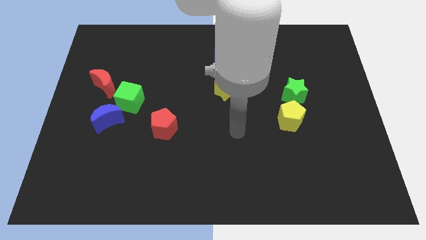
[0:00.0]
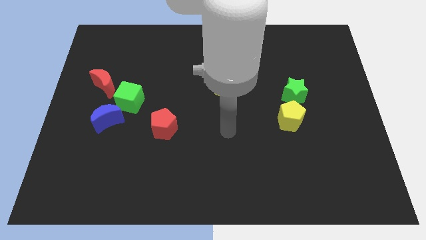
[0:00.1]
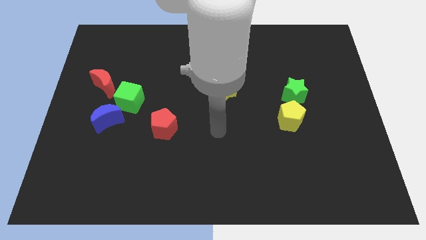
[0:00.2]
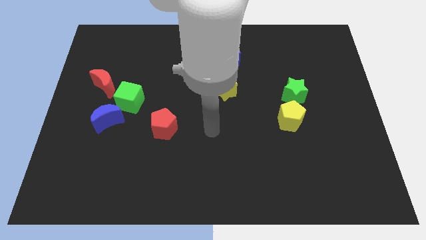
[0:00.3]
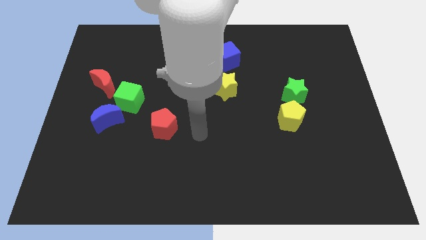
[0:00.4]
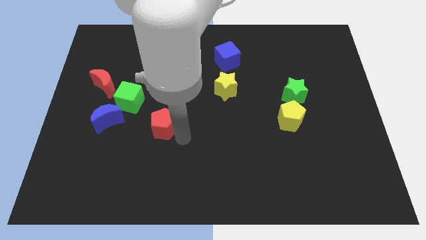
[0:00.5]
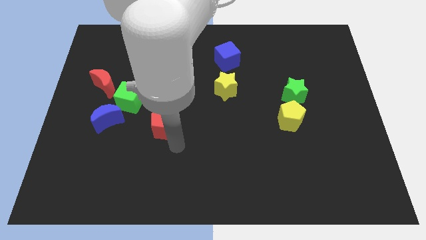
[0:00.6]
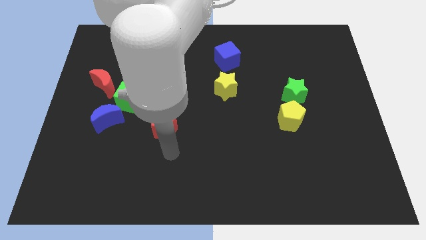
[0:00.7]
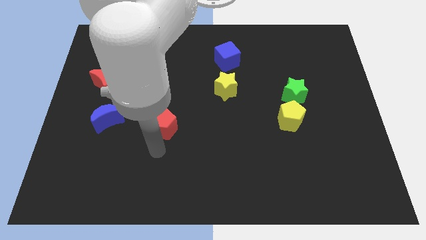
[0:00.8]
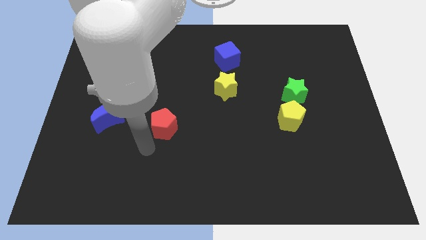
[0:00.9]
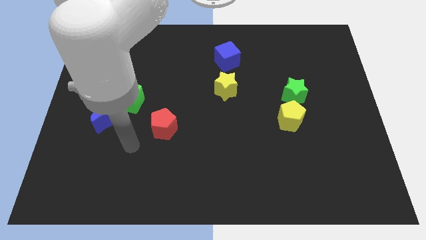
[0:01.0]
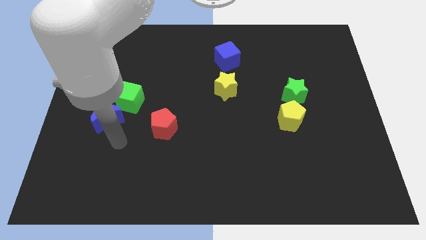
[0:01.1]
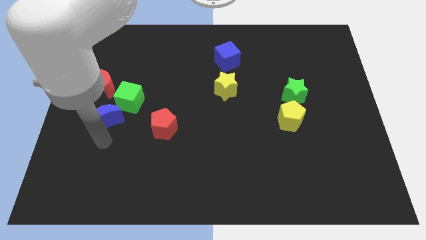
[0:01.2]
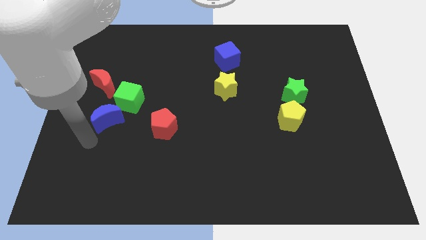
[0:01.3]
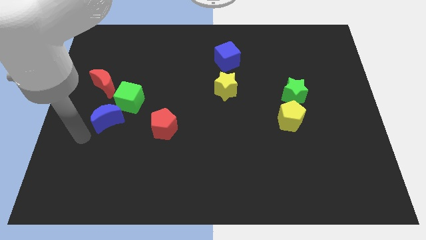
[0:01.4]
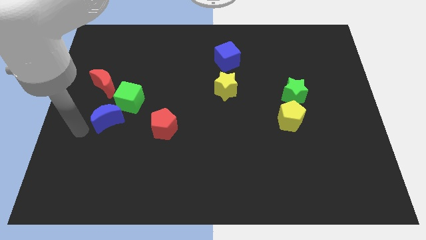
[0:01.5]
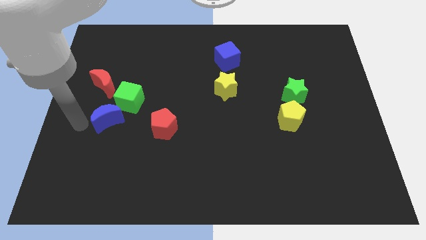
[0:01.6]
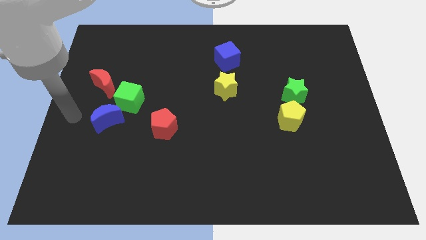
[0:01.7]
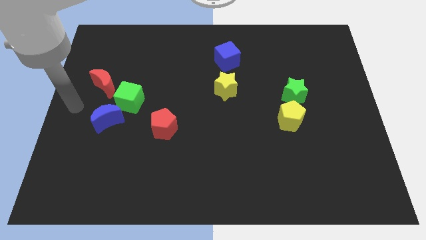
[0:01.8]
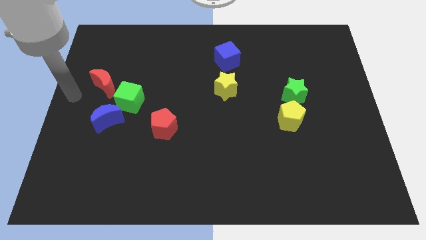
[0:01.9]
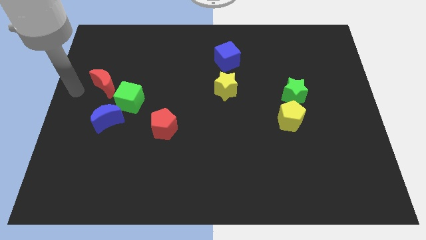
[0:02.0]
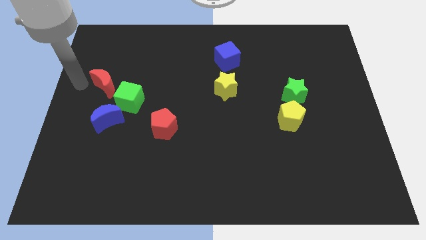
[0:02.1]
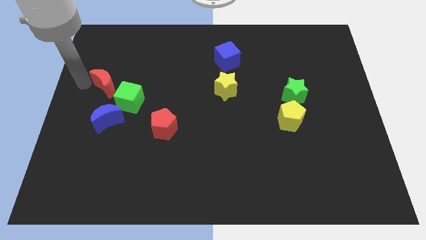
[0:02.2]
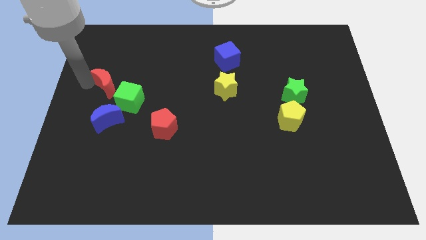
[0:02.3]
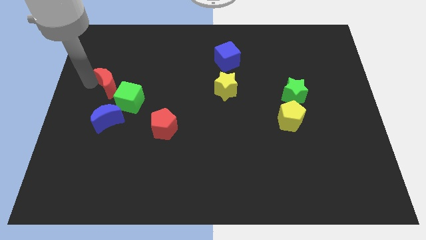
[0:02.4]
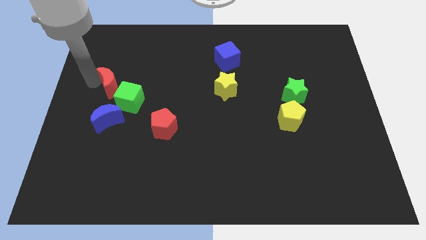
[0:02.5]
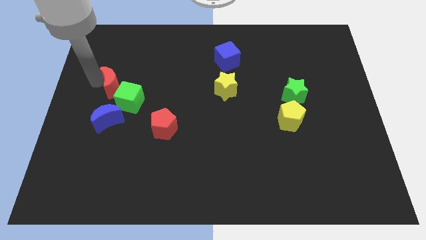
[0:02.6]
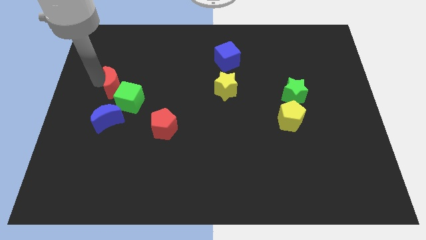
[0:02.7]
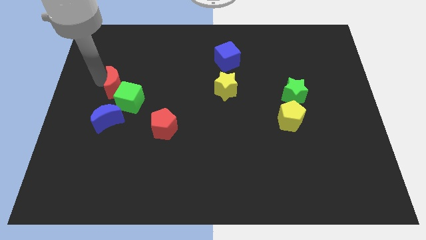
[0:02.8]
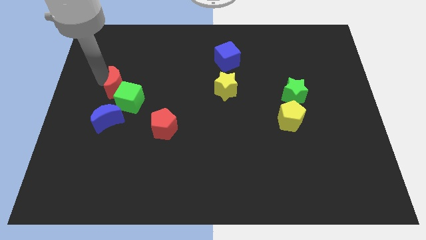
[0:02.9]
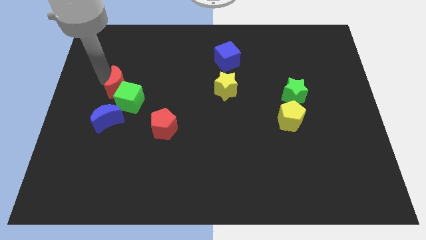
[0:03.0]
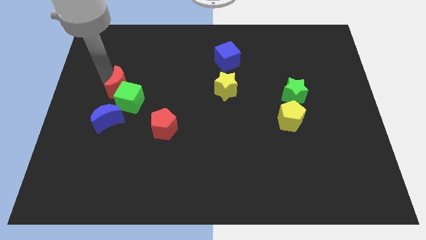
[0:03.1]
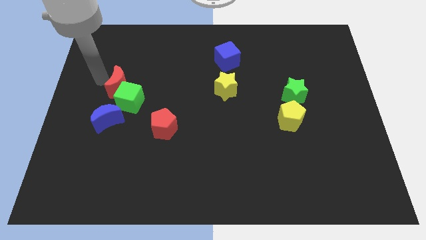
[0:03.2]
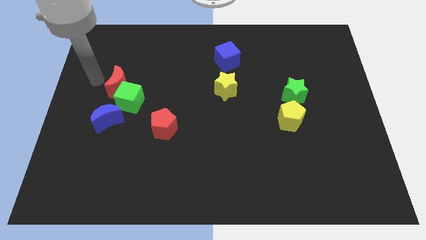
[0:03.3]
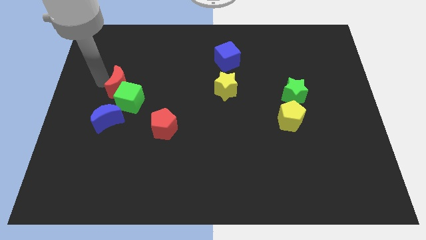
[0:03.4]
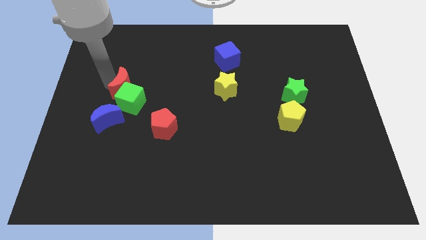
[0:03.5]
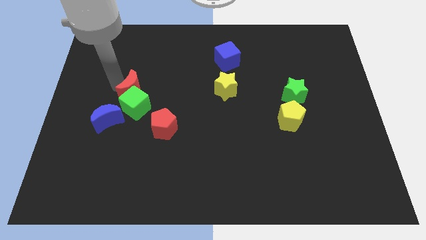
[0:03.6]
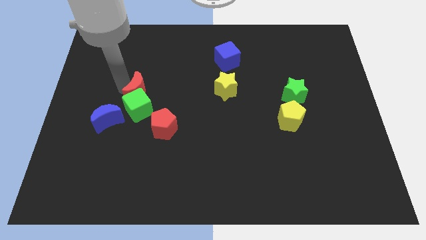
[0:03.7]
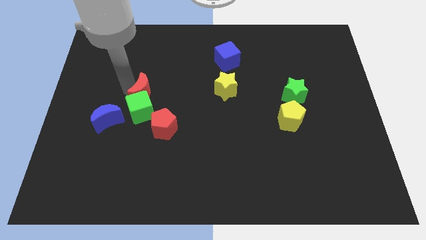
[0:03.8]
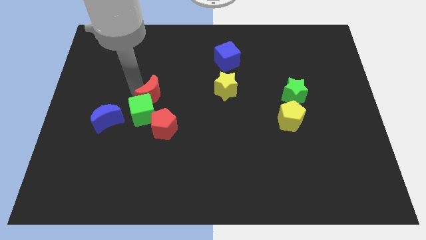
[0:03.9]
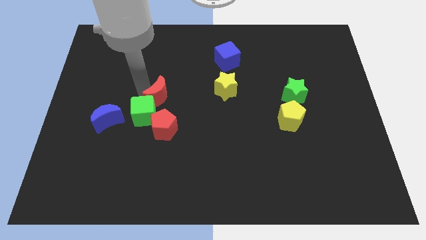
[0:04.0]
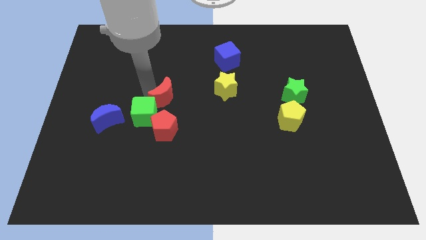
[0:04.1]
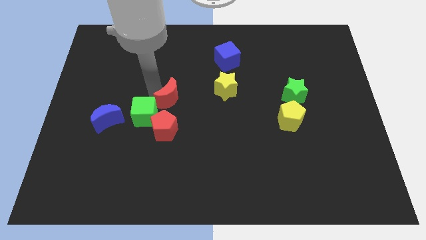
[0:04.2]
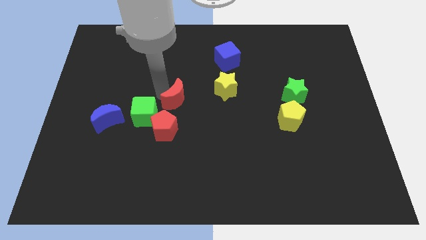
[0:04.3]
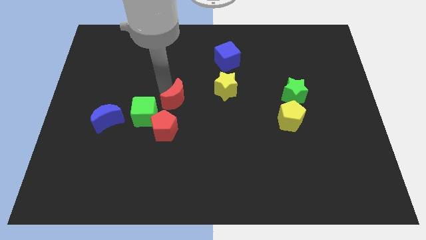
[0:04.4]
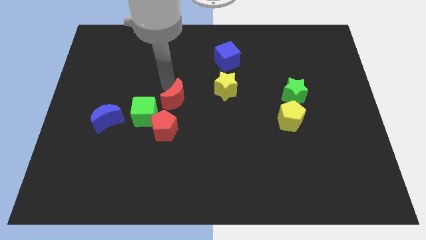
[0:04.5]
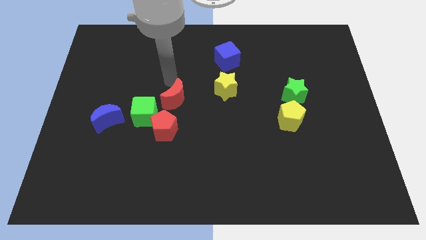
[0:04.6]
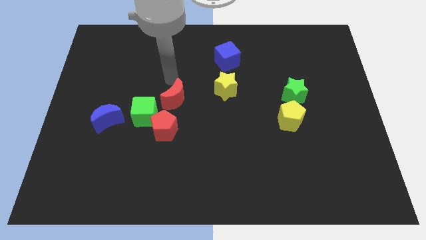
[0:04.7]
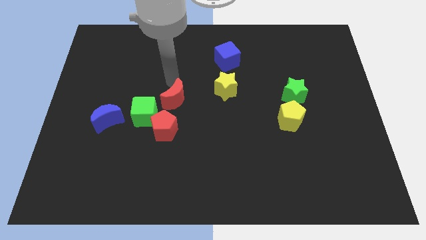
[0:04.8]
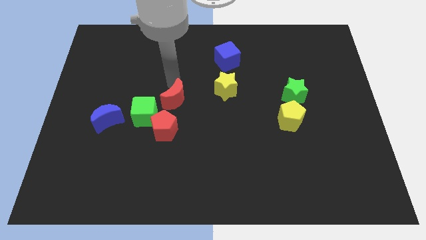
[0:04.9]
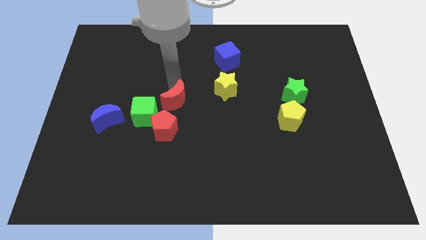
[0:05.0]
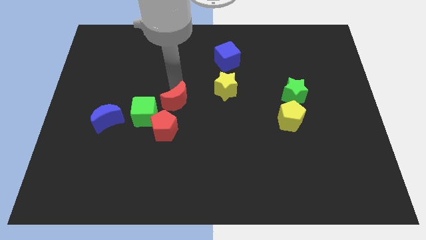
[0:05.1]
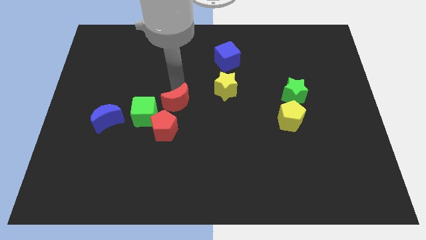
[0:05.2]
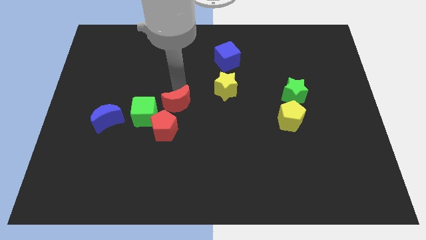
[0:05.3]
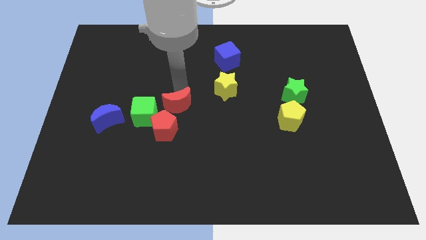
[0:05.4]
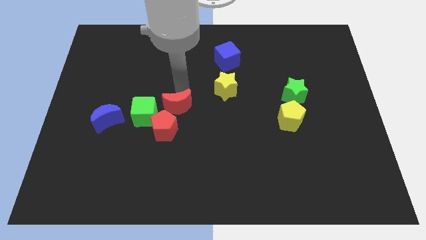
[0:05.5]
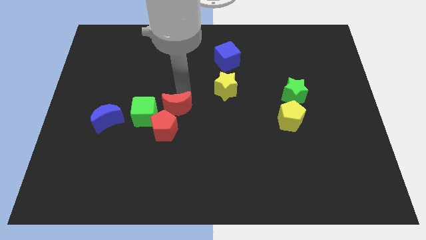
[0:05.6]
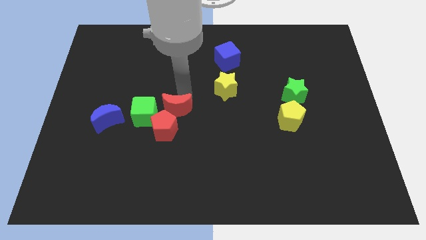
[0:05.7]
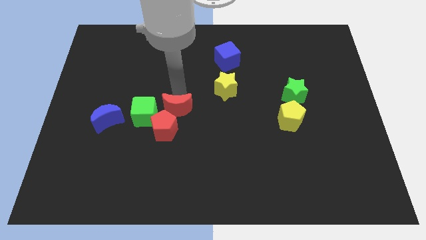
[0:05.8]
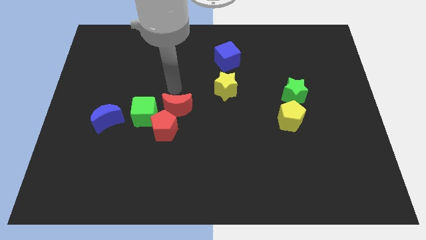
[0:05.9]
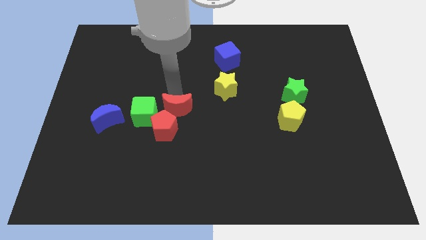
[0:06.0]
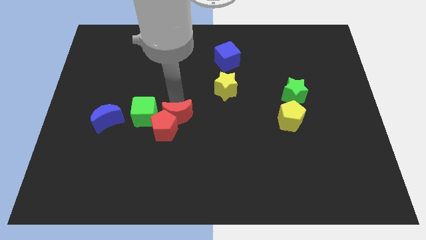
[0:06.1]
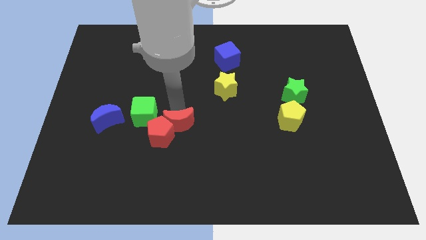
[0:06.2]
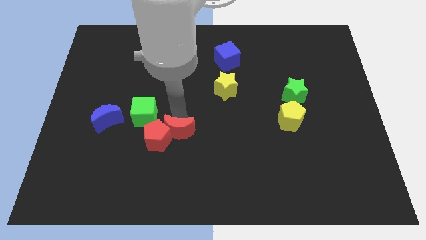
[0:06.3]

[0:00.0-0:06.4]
slide the red moon diagonally down and to the right of the red pentagon

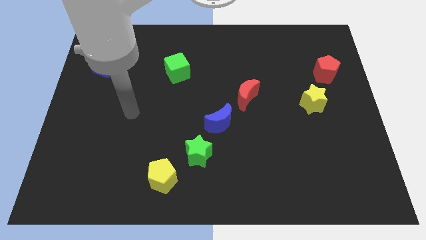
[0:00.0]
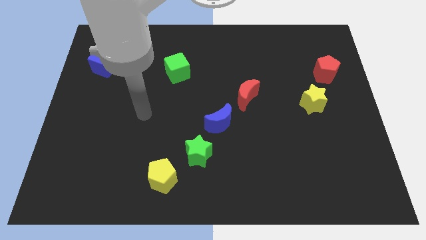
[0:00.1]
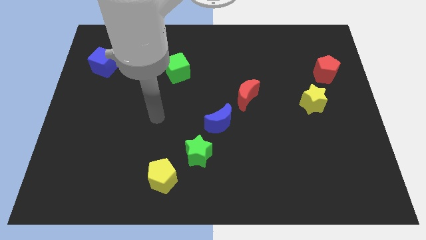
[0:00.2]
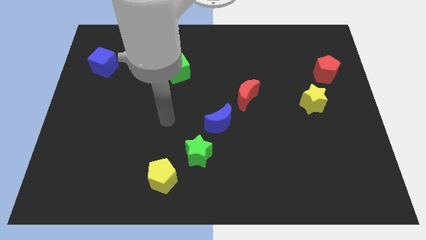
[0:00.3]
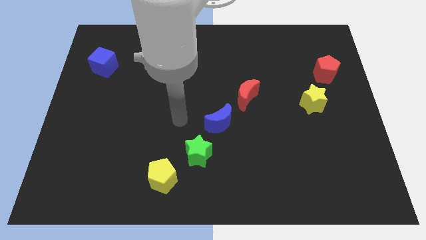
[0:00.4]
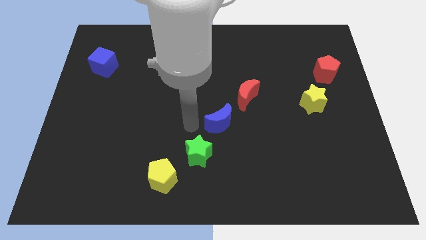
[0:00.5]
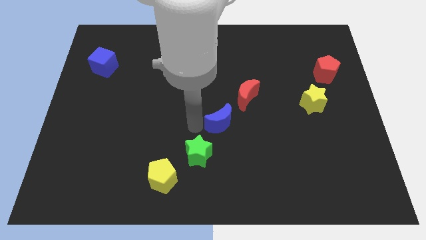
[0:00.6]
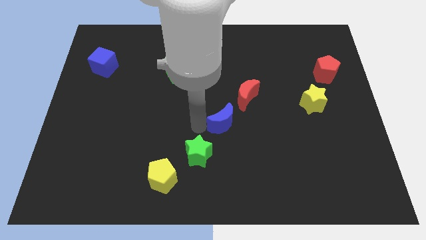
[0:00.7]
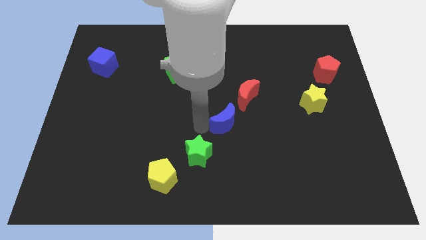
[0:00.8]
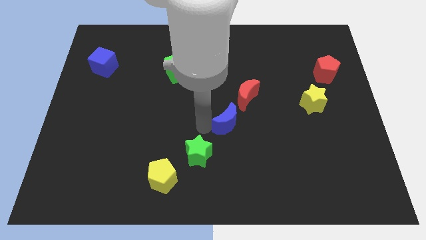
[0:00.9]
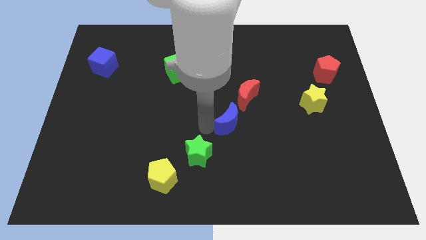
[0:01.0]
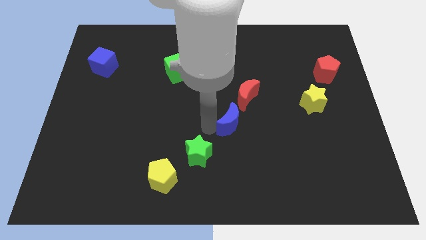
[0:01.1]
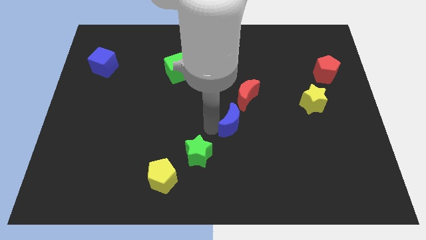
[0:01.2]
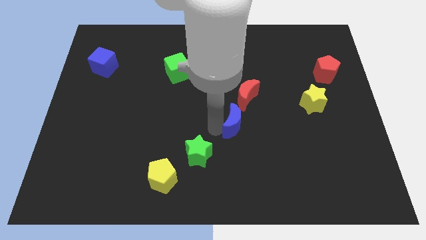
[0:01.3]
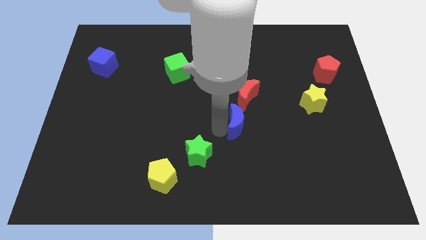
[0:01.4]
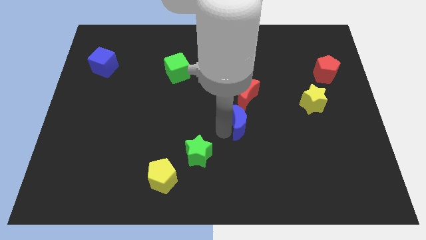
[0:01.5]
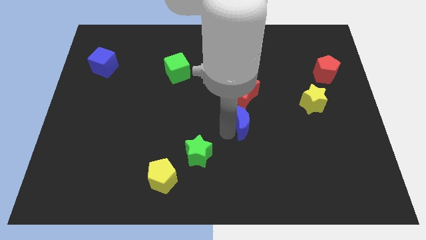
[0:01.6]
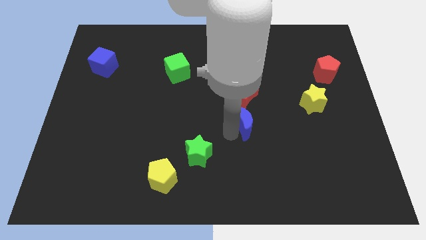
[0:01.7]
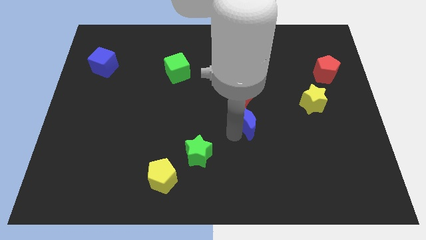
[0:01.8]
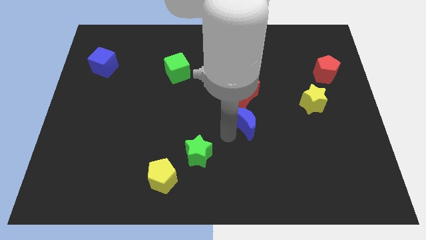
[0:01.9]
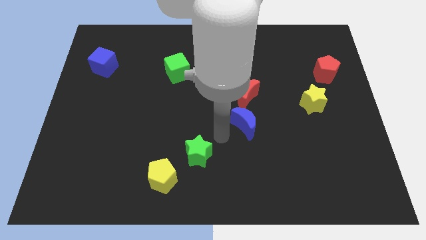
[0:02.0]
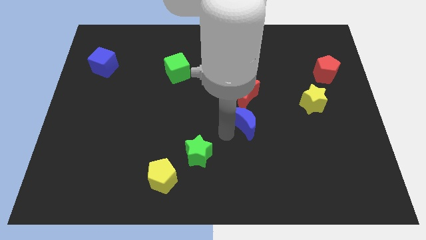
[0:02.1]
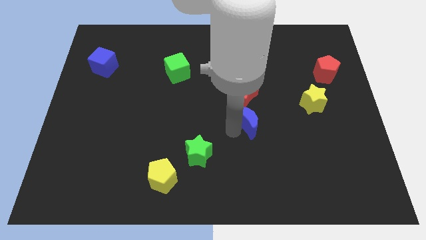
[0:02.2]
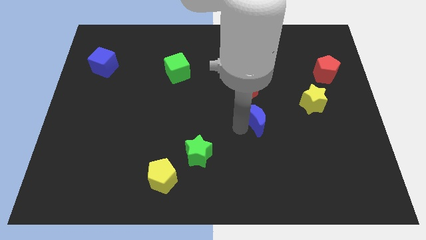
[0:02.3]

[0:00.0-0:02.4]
put the blue moon to the bottom right of the red moon
